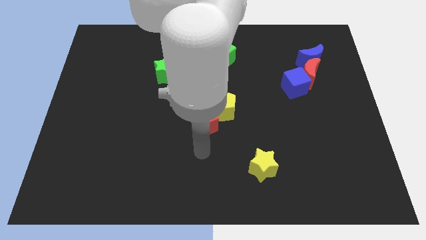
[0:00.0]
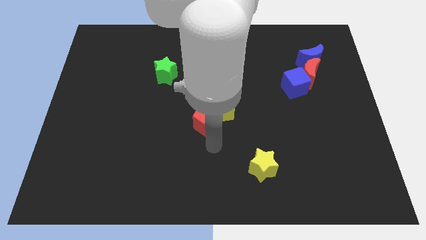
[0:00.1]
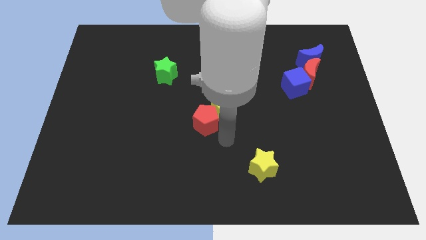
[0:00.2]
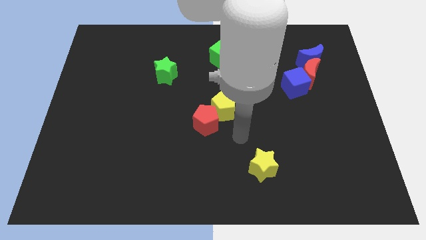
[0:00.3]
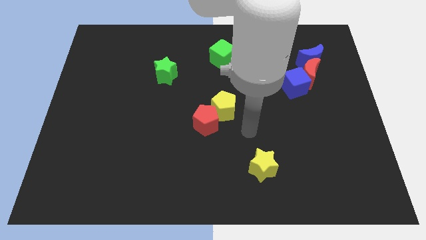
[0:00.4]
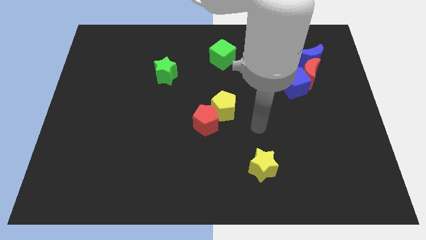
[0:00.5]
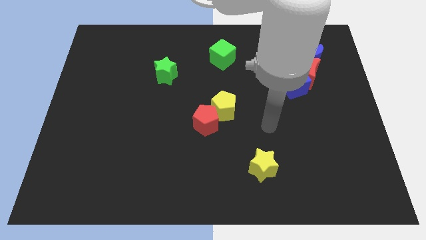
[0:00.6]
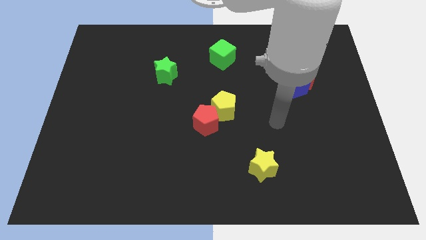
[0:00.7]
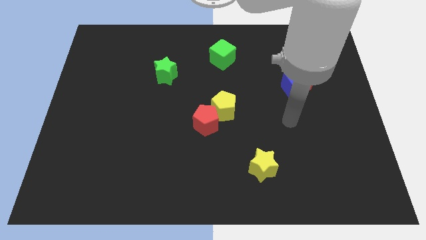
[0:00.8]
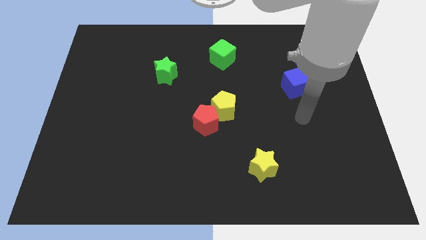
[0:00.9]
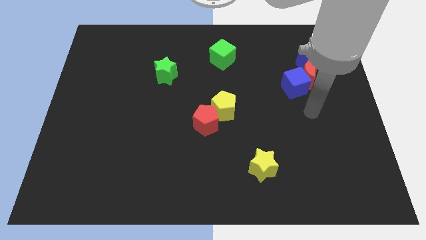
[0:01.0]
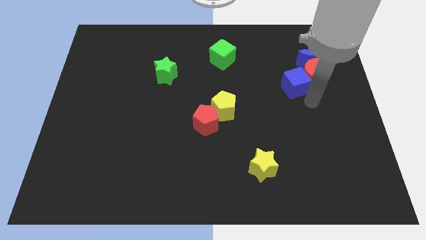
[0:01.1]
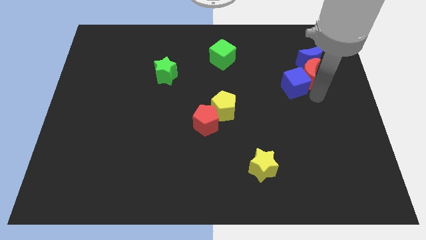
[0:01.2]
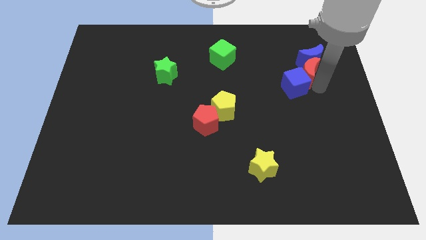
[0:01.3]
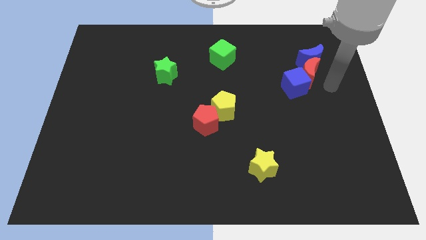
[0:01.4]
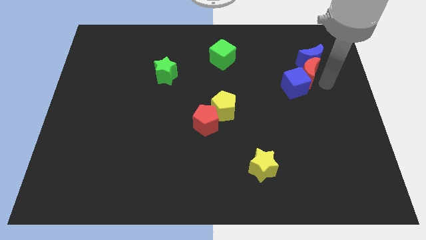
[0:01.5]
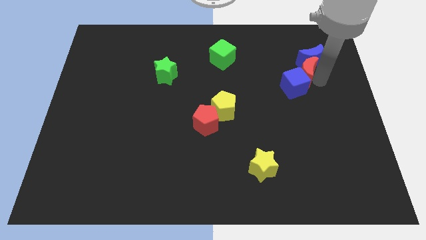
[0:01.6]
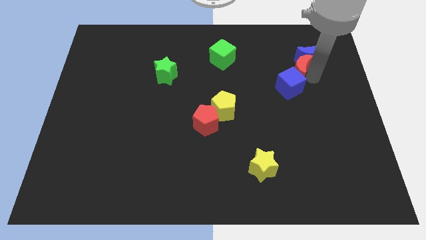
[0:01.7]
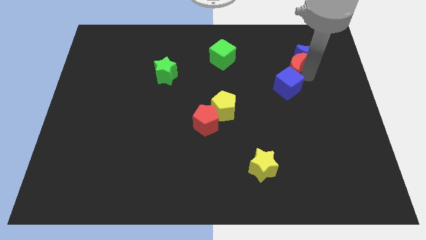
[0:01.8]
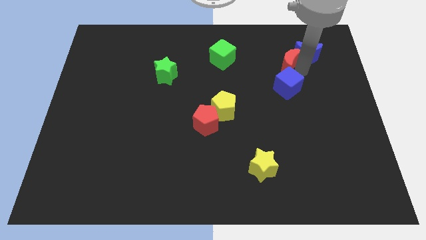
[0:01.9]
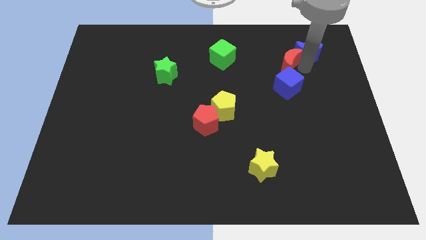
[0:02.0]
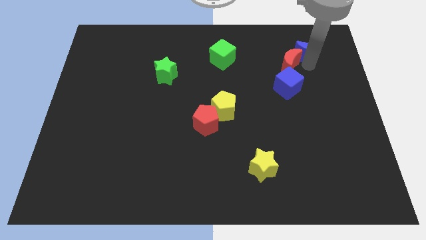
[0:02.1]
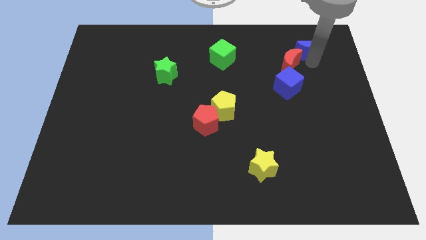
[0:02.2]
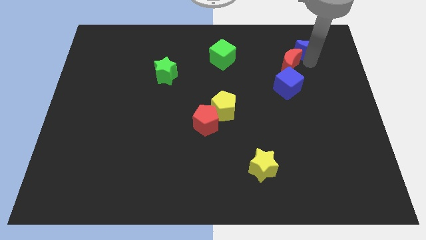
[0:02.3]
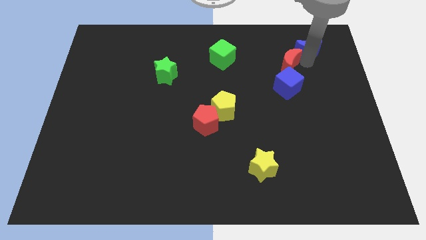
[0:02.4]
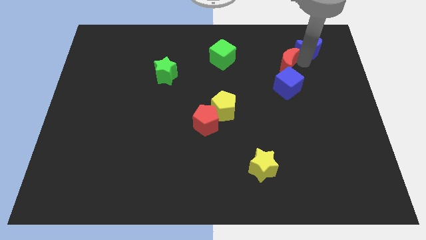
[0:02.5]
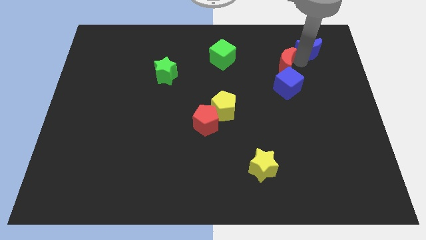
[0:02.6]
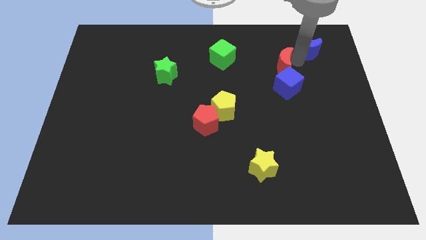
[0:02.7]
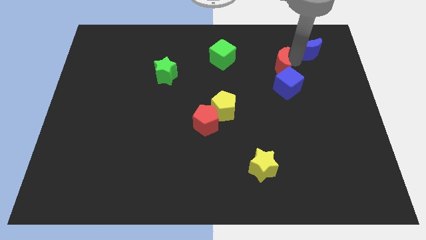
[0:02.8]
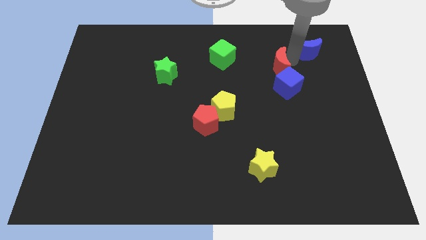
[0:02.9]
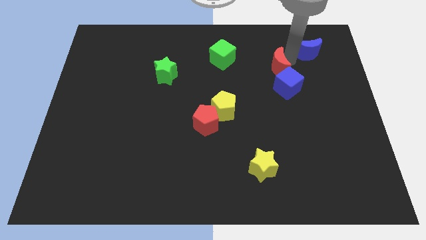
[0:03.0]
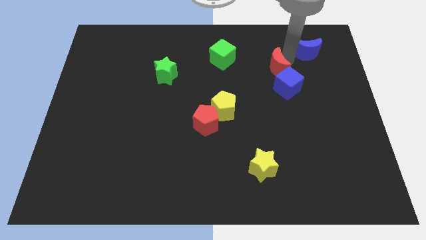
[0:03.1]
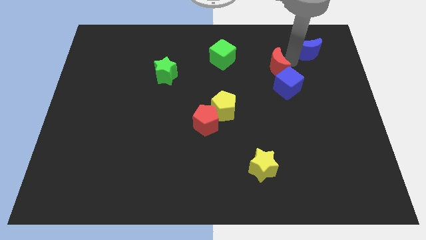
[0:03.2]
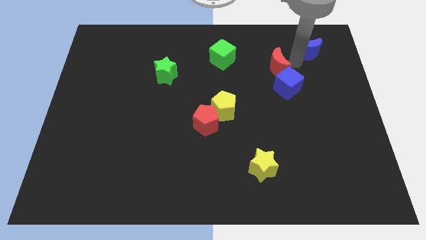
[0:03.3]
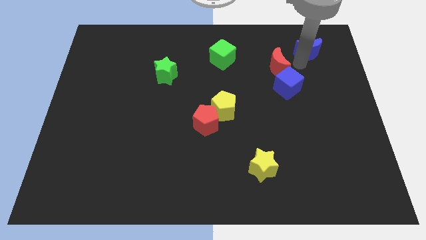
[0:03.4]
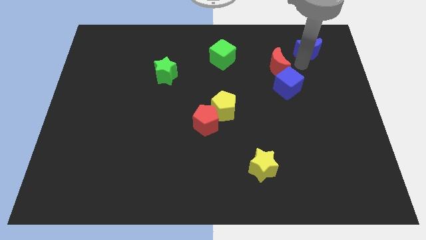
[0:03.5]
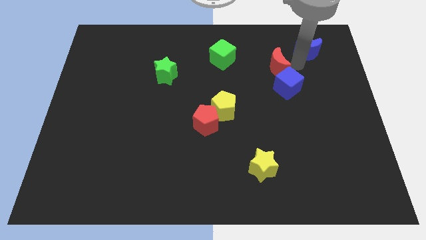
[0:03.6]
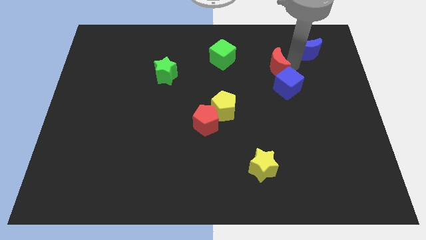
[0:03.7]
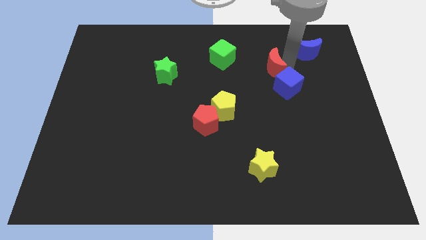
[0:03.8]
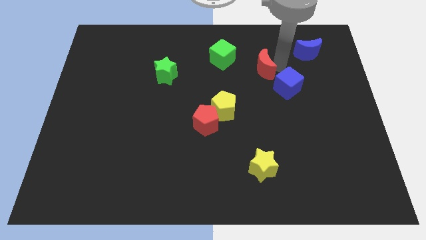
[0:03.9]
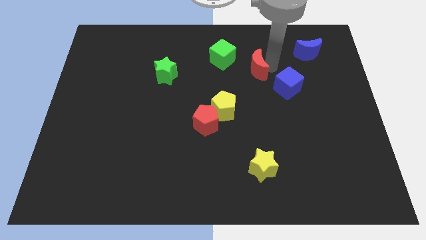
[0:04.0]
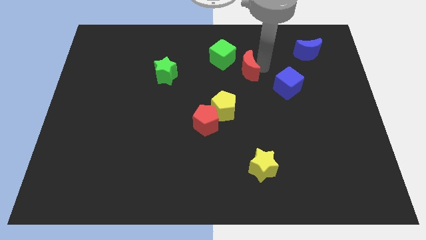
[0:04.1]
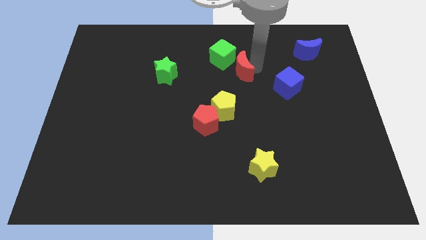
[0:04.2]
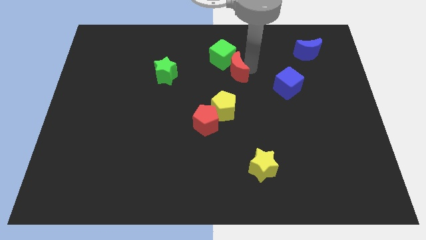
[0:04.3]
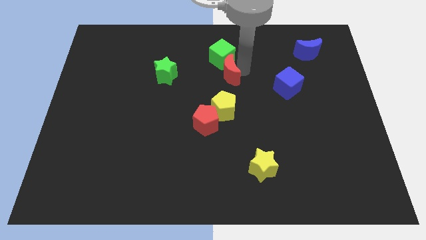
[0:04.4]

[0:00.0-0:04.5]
put the red moon to the right of the green star

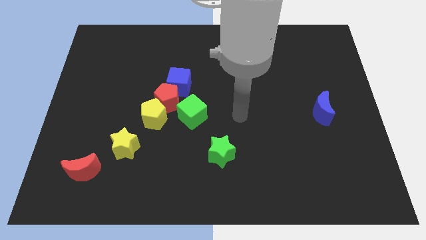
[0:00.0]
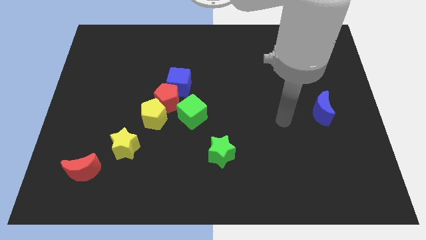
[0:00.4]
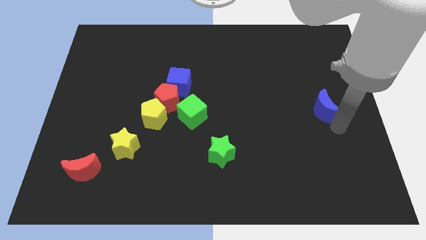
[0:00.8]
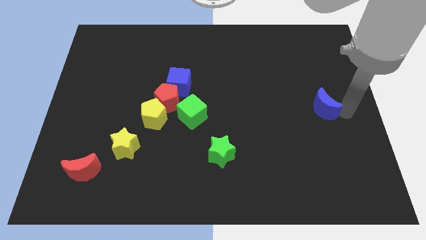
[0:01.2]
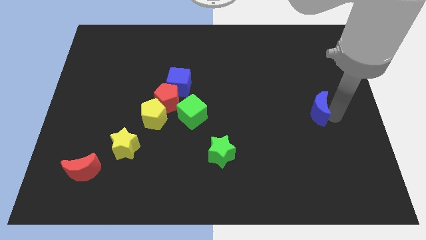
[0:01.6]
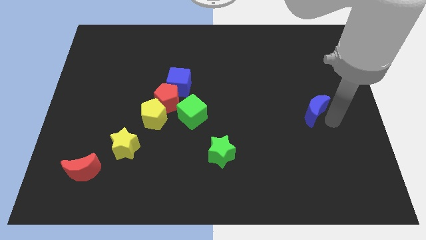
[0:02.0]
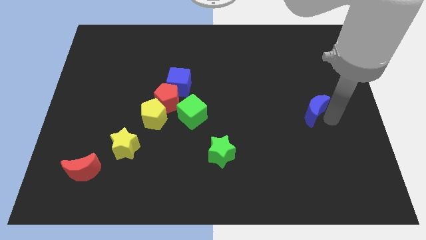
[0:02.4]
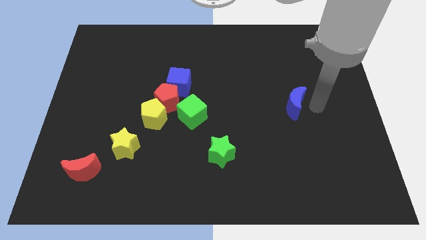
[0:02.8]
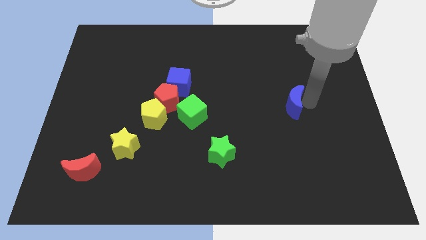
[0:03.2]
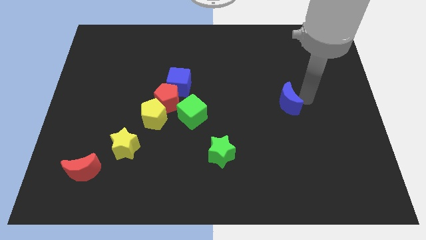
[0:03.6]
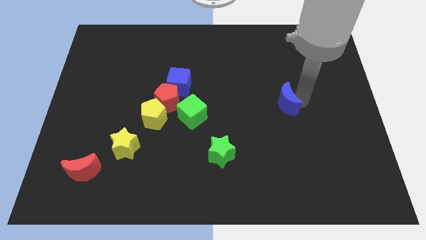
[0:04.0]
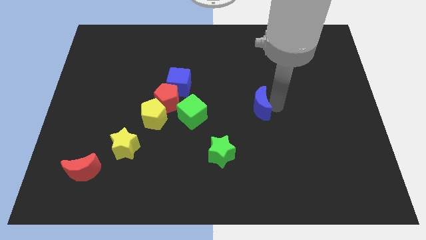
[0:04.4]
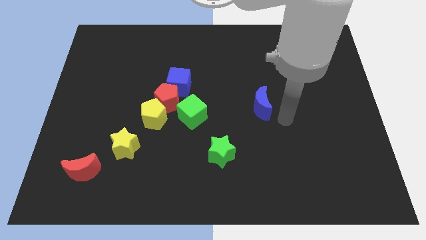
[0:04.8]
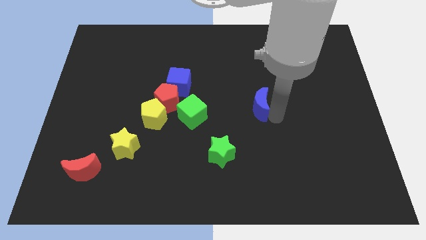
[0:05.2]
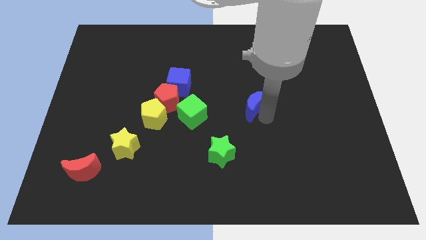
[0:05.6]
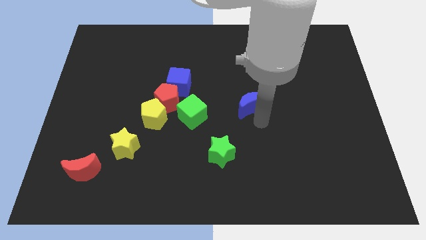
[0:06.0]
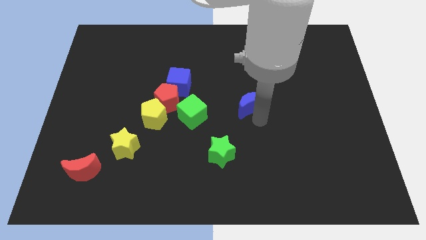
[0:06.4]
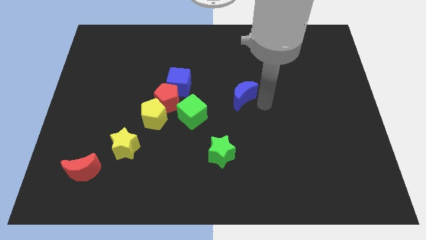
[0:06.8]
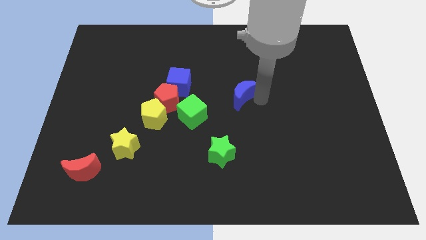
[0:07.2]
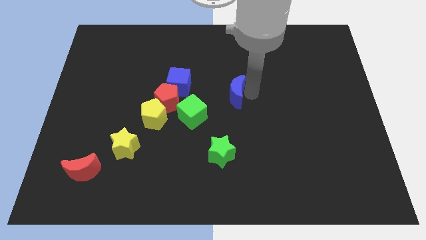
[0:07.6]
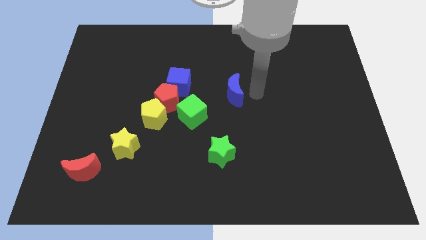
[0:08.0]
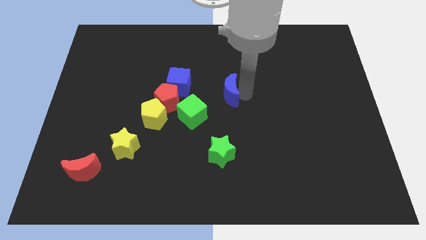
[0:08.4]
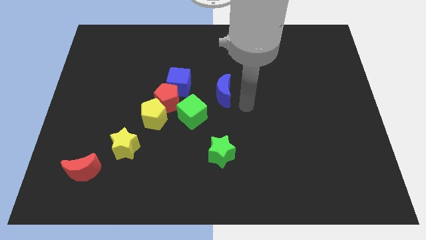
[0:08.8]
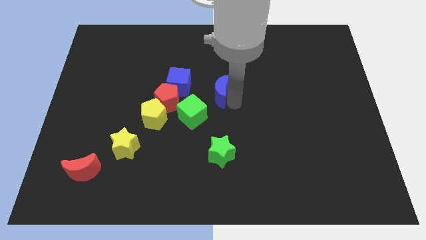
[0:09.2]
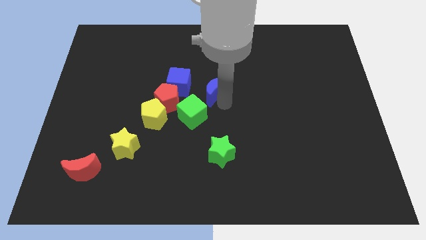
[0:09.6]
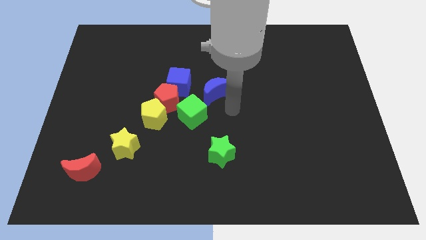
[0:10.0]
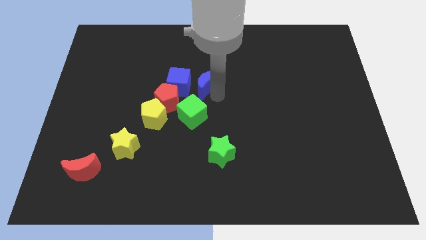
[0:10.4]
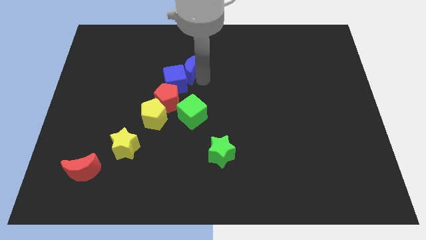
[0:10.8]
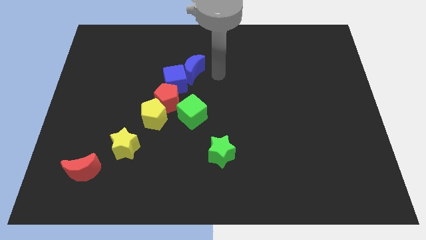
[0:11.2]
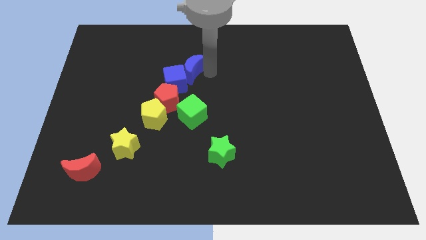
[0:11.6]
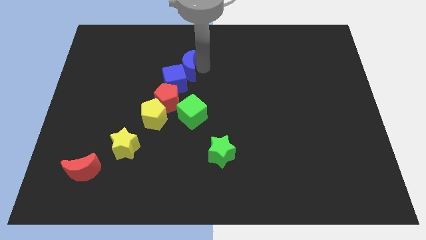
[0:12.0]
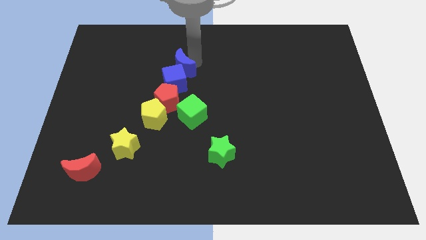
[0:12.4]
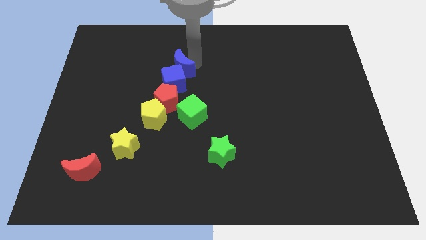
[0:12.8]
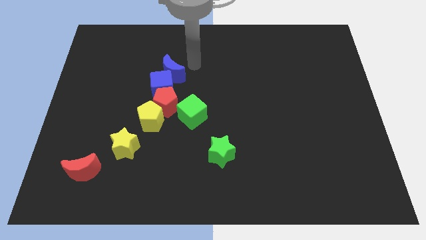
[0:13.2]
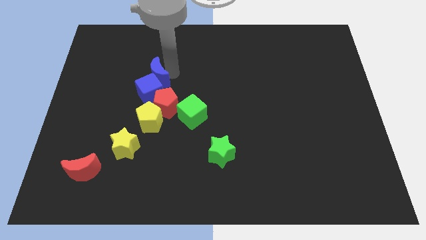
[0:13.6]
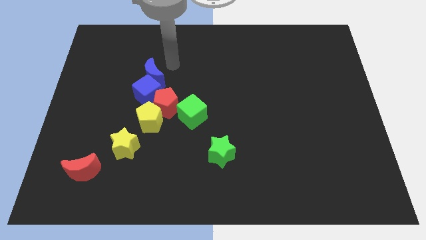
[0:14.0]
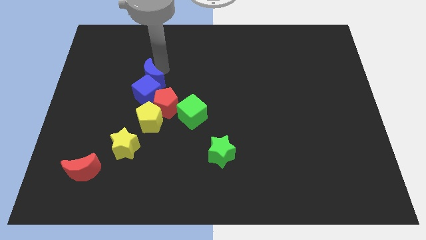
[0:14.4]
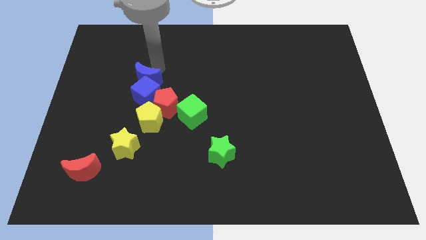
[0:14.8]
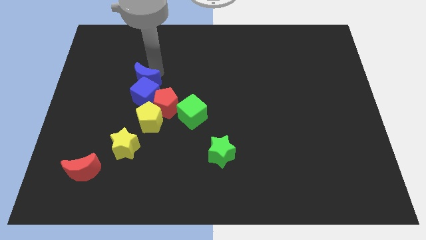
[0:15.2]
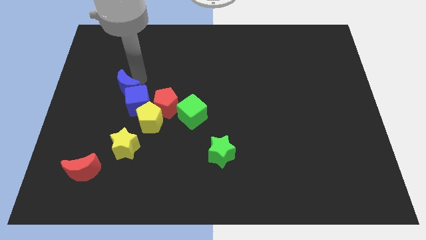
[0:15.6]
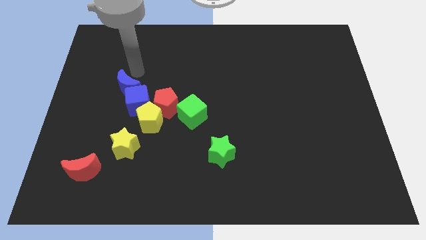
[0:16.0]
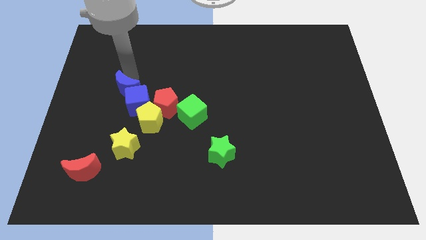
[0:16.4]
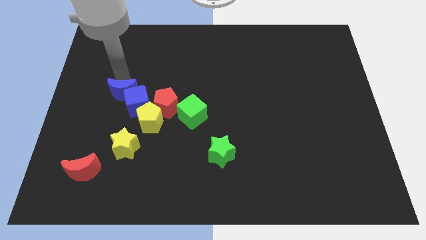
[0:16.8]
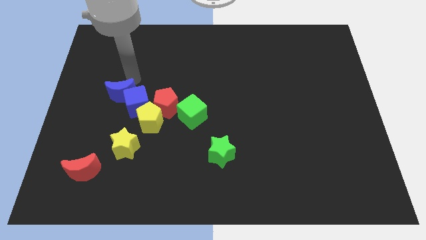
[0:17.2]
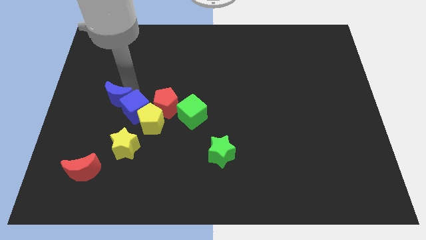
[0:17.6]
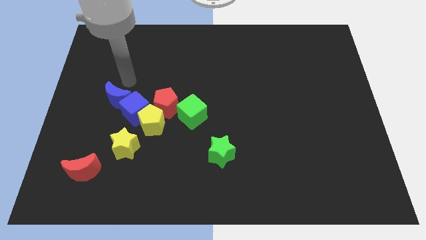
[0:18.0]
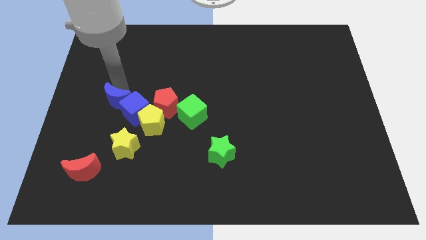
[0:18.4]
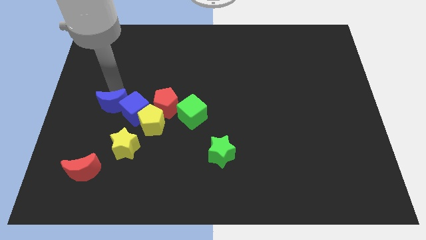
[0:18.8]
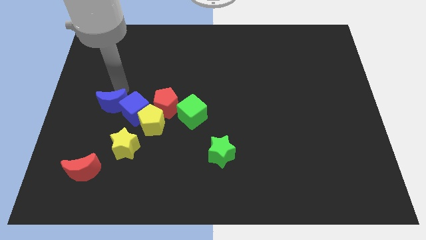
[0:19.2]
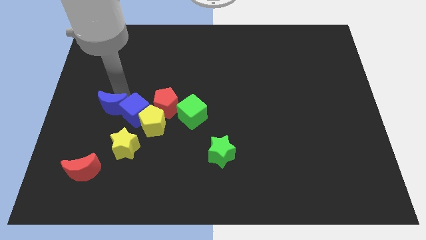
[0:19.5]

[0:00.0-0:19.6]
push the blue moon to the left of the yellow pentagon
